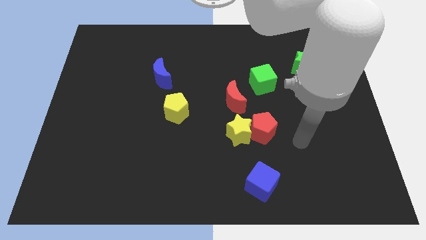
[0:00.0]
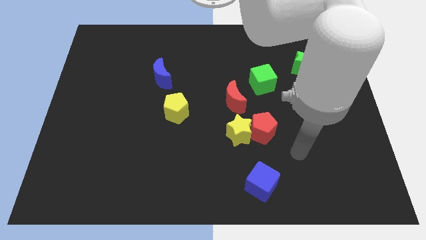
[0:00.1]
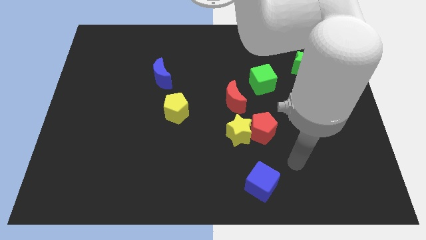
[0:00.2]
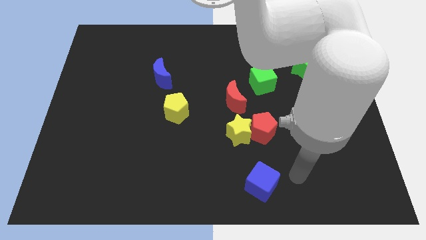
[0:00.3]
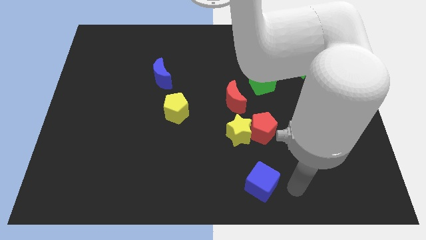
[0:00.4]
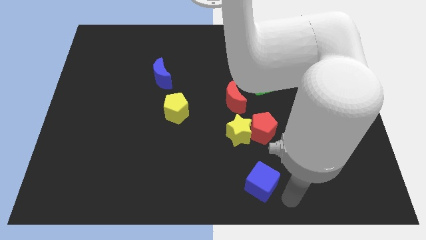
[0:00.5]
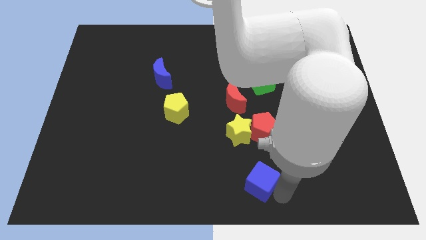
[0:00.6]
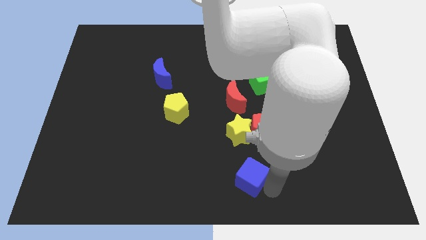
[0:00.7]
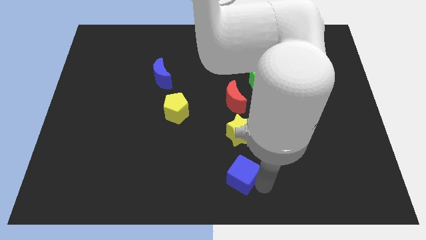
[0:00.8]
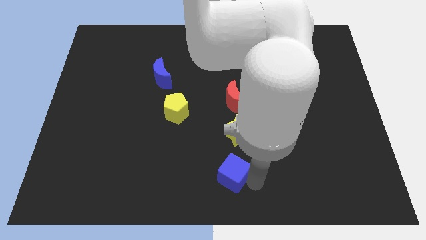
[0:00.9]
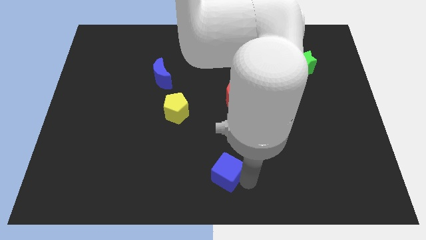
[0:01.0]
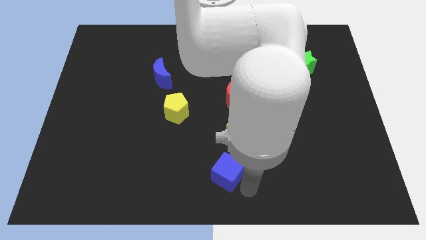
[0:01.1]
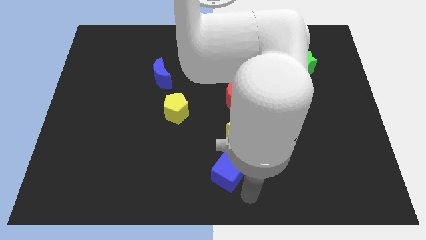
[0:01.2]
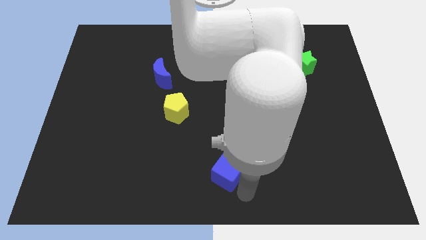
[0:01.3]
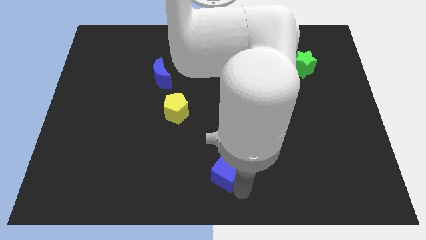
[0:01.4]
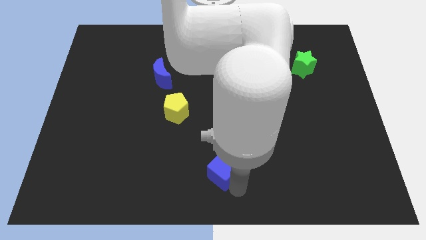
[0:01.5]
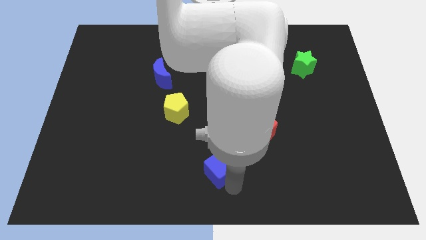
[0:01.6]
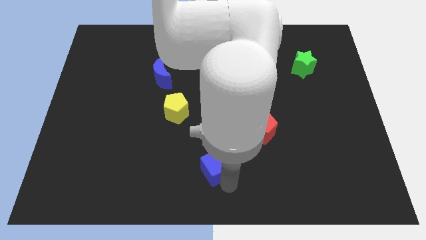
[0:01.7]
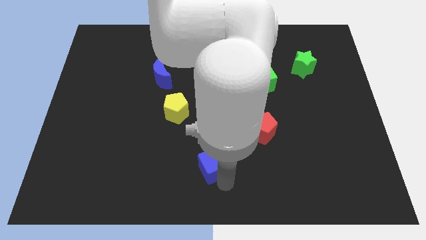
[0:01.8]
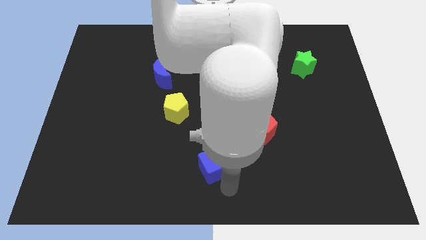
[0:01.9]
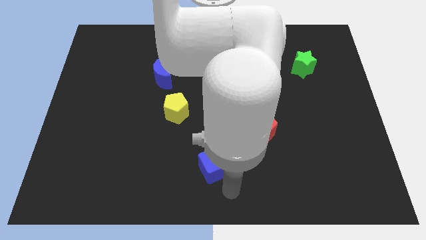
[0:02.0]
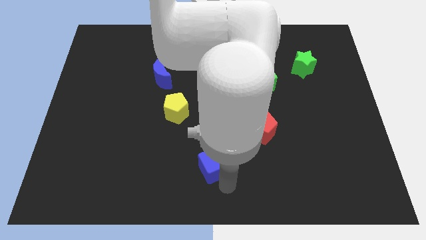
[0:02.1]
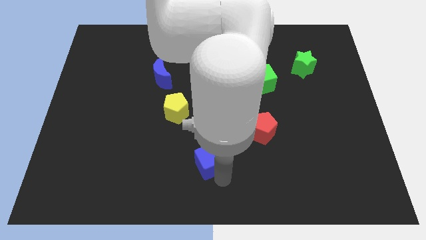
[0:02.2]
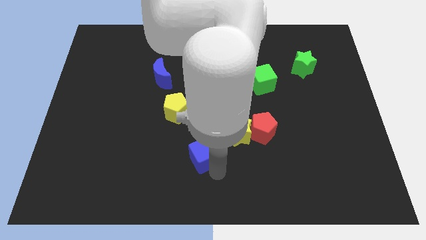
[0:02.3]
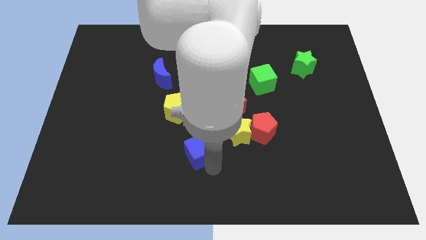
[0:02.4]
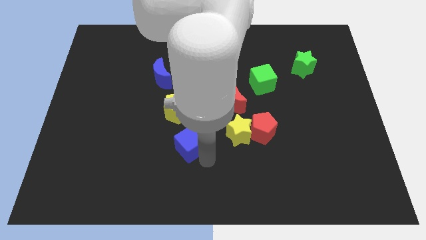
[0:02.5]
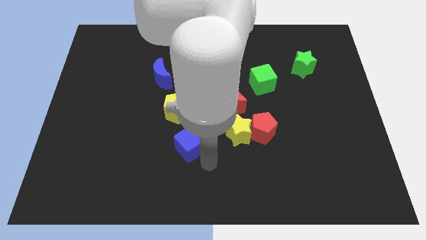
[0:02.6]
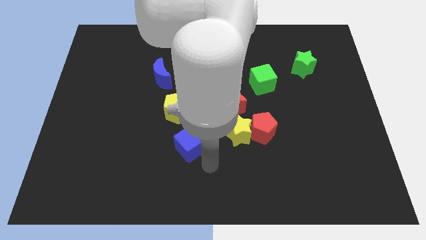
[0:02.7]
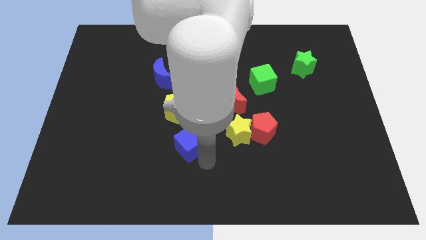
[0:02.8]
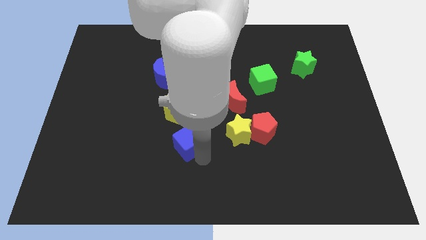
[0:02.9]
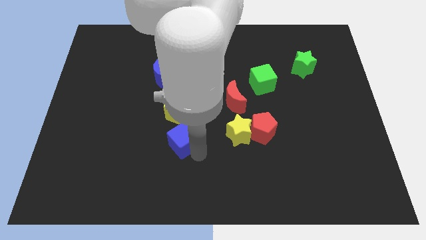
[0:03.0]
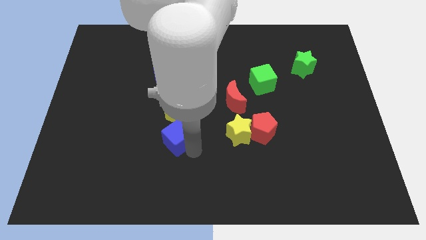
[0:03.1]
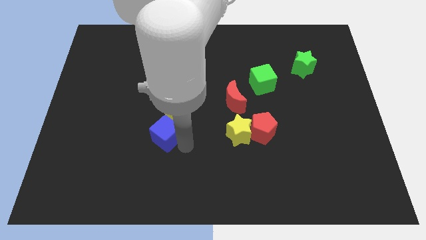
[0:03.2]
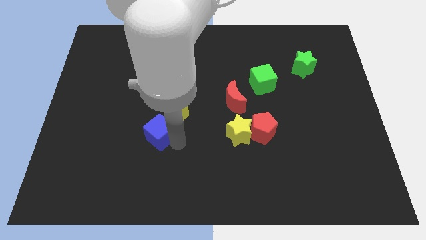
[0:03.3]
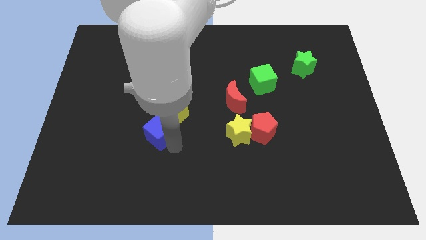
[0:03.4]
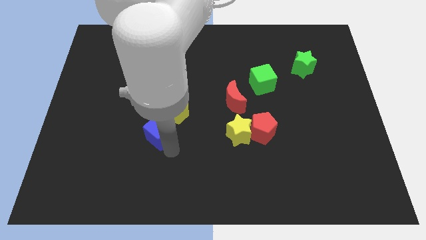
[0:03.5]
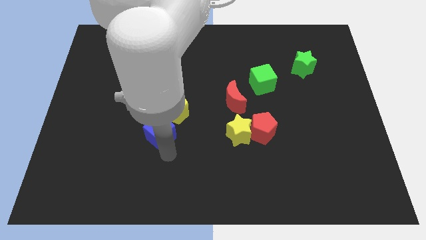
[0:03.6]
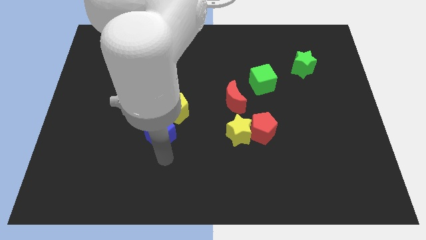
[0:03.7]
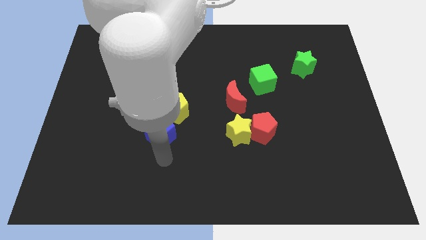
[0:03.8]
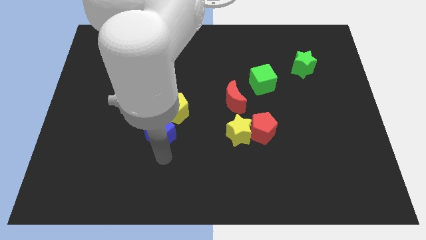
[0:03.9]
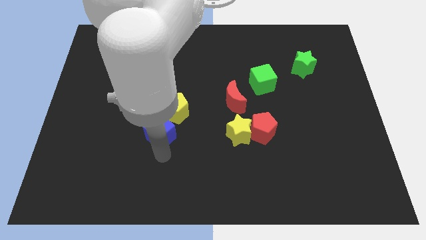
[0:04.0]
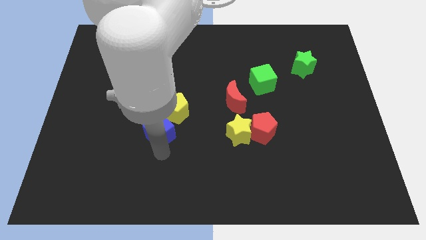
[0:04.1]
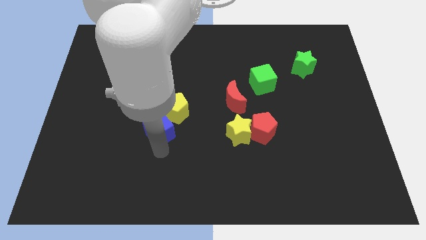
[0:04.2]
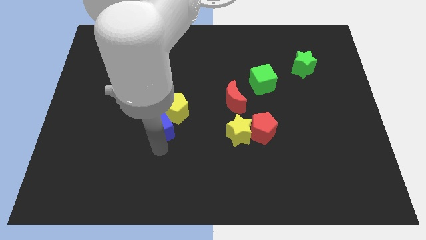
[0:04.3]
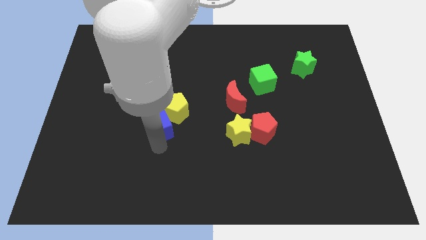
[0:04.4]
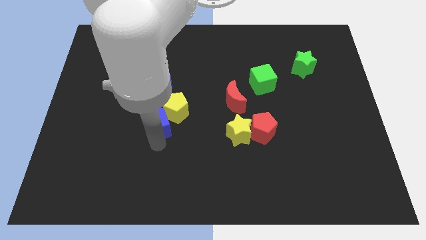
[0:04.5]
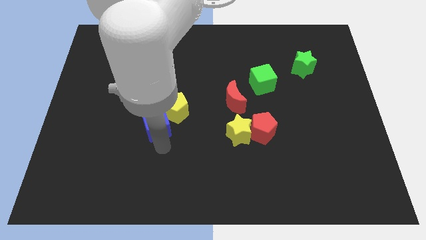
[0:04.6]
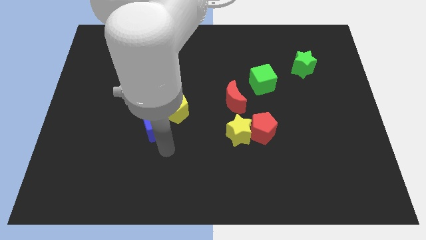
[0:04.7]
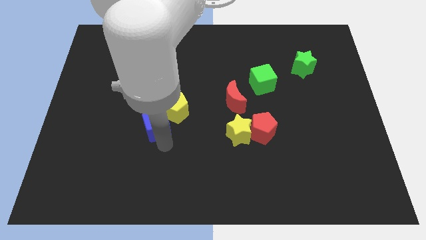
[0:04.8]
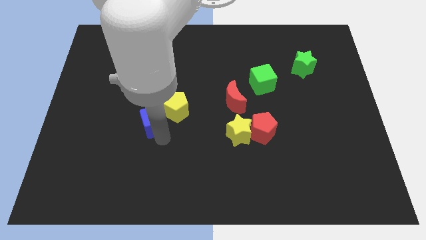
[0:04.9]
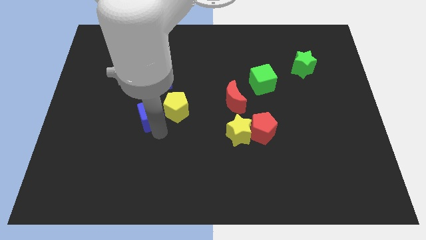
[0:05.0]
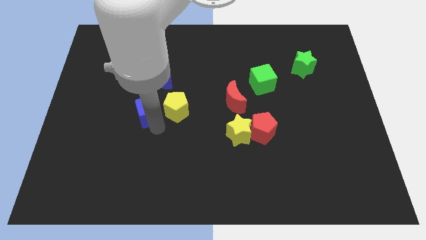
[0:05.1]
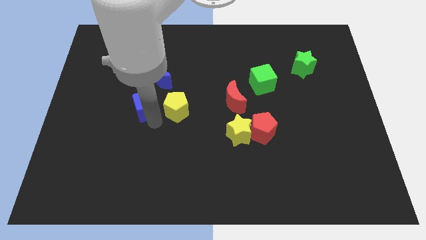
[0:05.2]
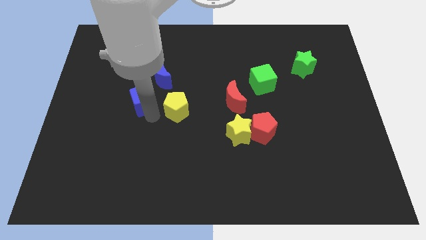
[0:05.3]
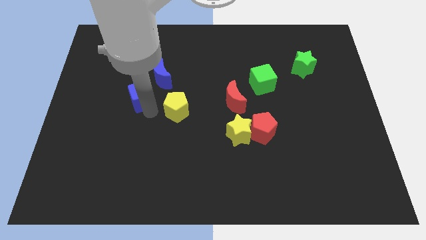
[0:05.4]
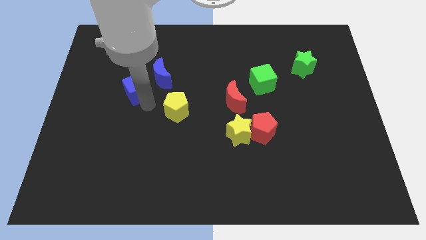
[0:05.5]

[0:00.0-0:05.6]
move the blue cube to the left of the blue moon
